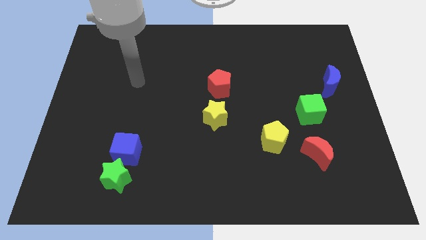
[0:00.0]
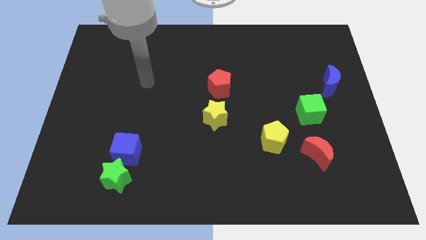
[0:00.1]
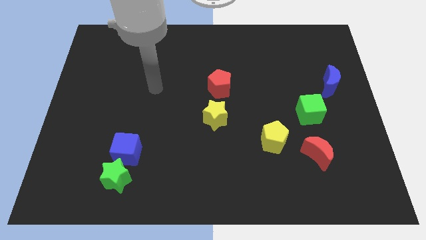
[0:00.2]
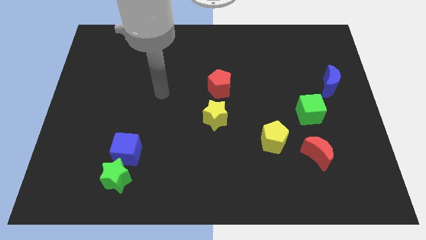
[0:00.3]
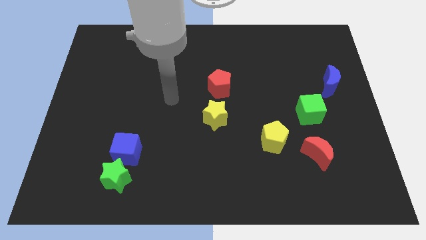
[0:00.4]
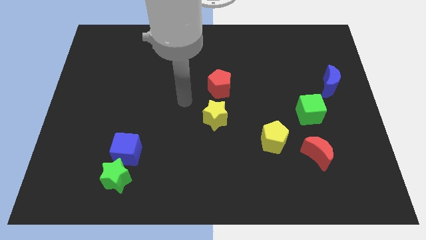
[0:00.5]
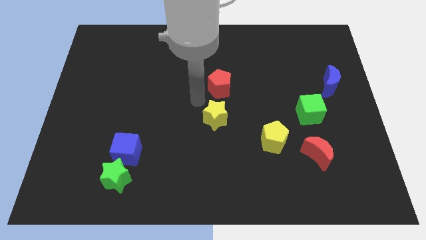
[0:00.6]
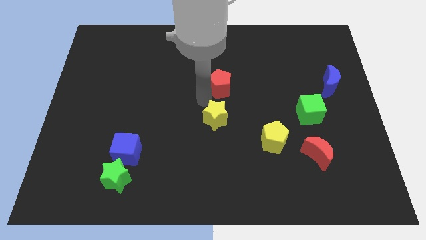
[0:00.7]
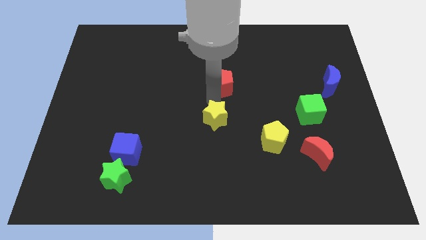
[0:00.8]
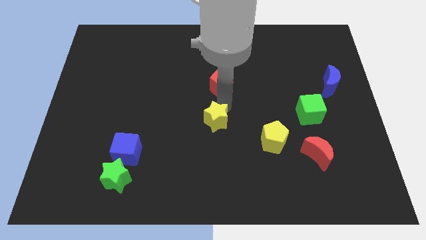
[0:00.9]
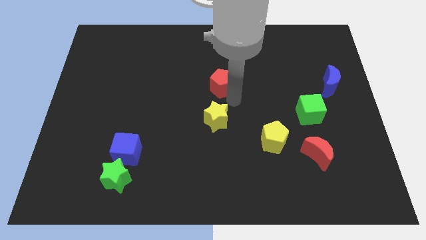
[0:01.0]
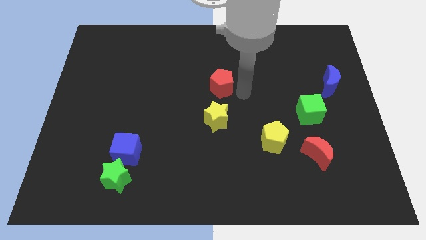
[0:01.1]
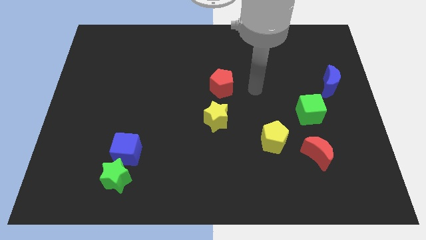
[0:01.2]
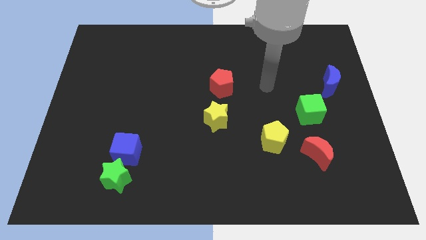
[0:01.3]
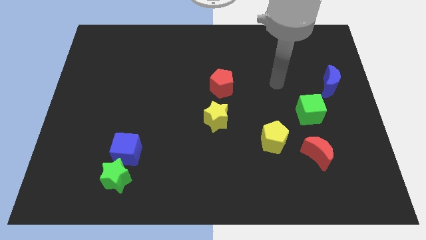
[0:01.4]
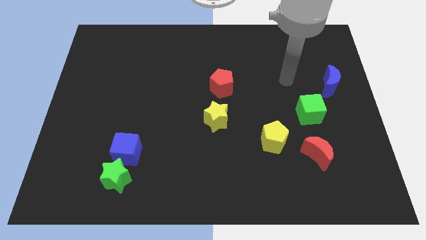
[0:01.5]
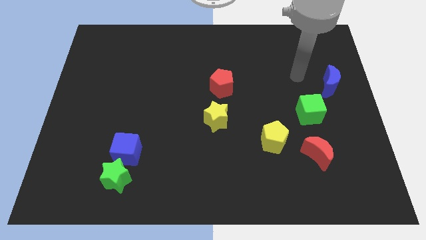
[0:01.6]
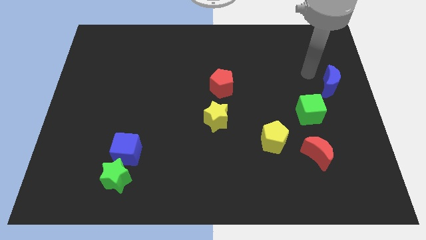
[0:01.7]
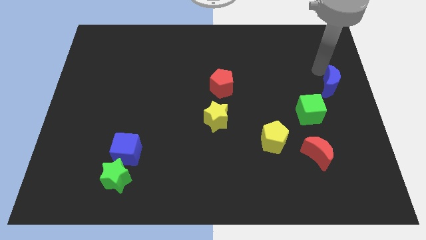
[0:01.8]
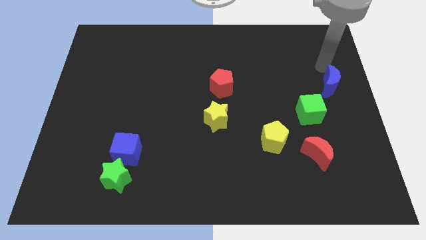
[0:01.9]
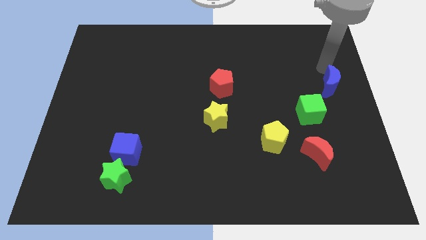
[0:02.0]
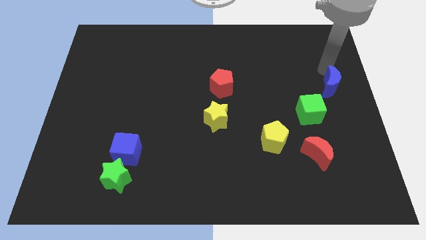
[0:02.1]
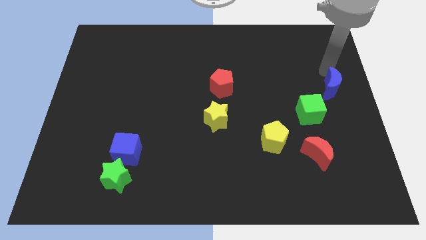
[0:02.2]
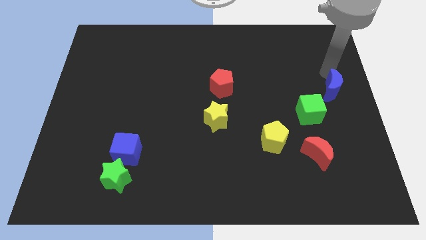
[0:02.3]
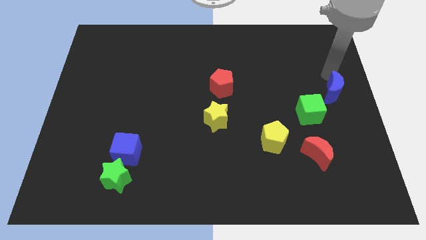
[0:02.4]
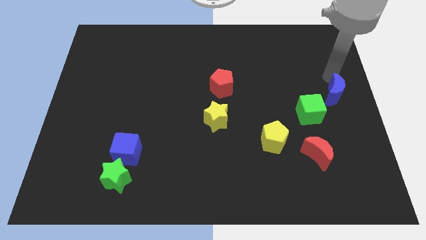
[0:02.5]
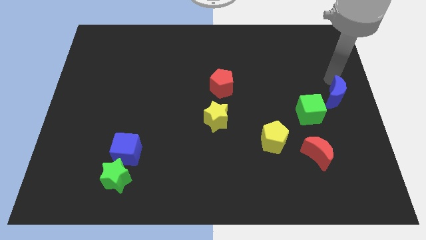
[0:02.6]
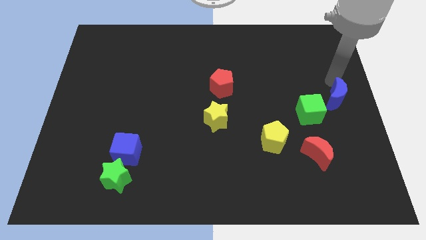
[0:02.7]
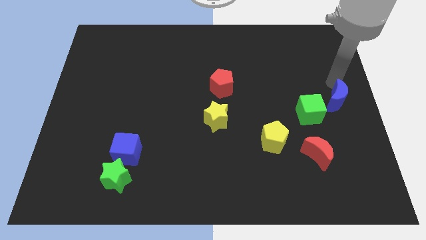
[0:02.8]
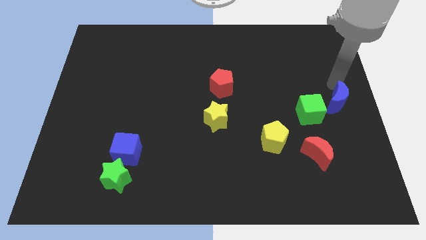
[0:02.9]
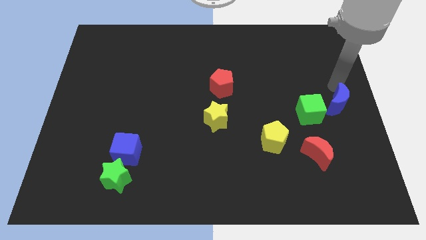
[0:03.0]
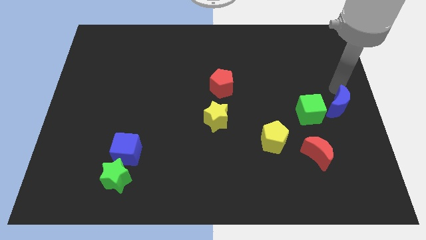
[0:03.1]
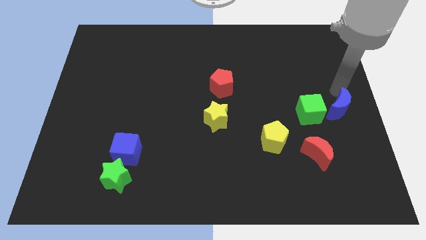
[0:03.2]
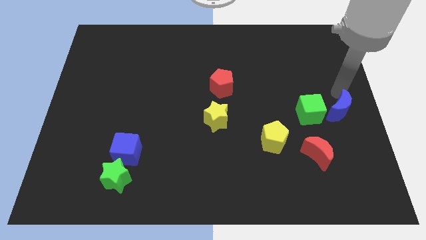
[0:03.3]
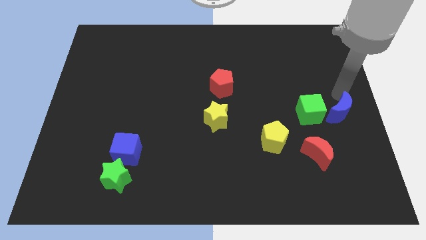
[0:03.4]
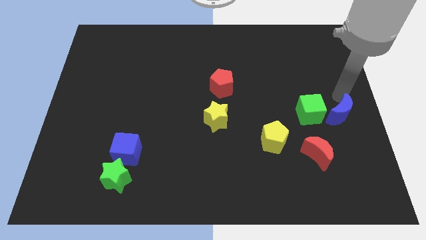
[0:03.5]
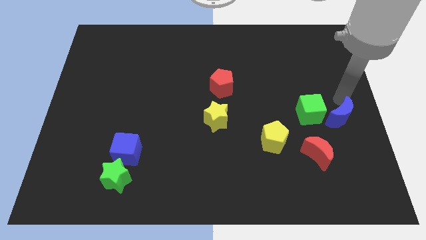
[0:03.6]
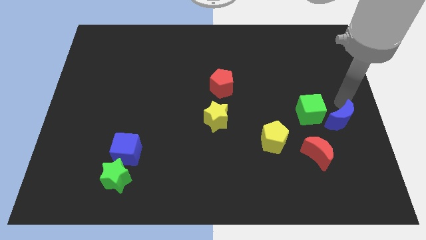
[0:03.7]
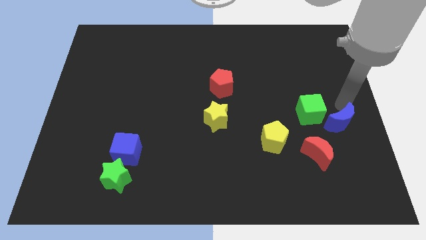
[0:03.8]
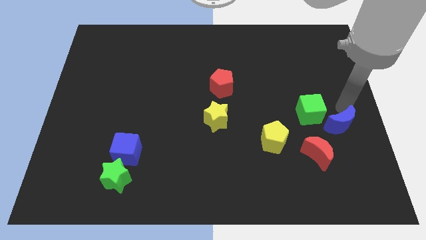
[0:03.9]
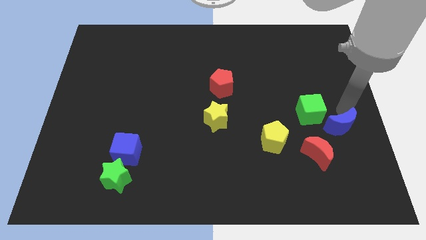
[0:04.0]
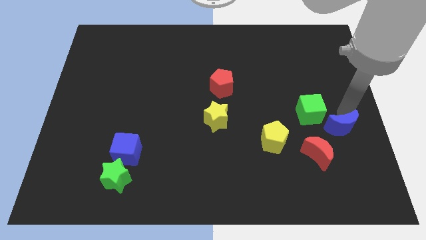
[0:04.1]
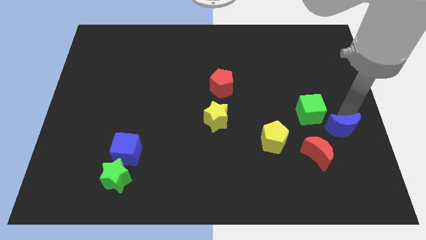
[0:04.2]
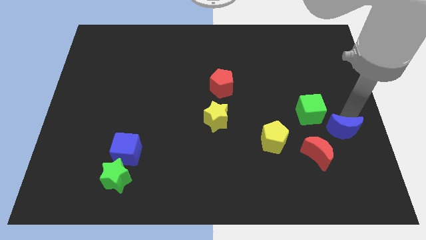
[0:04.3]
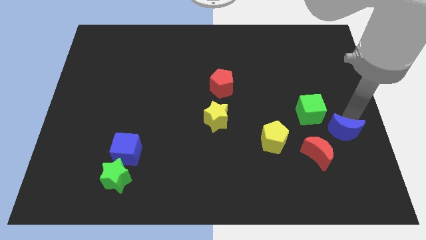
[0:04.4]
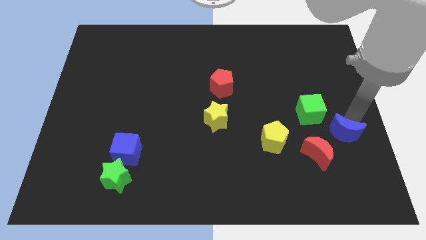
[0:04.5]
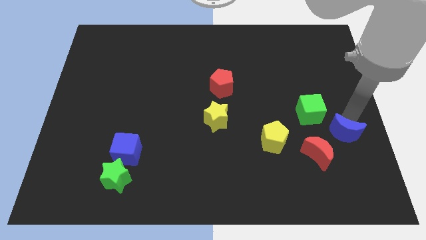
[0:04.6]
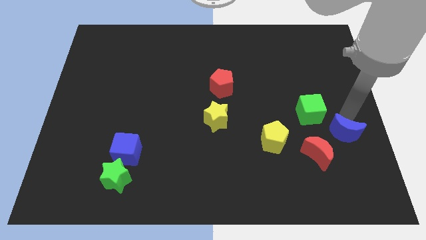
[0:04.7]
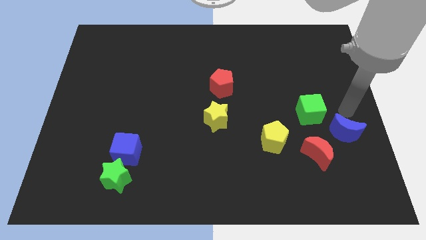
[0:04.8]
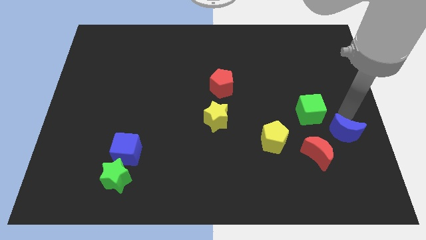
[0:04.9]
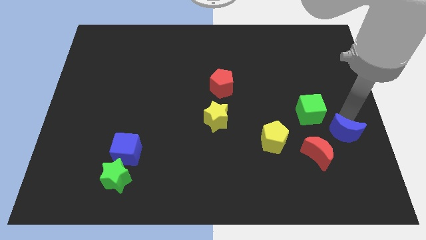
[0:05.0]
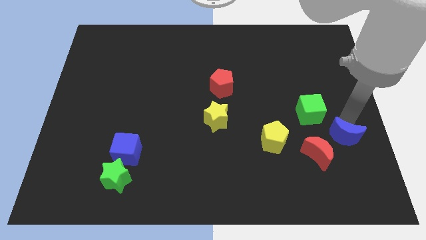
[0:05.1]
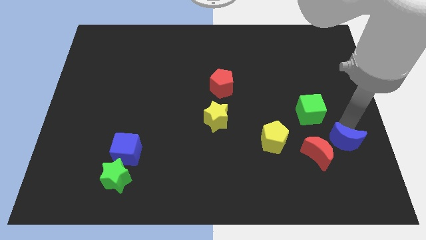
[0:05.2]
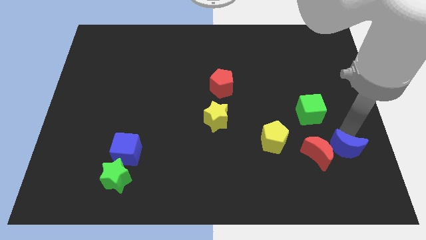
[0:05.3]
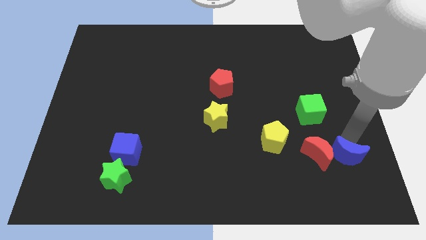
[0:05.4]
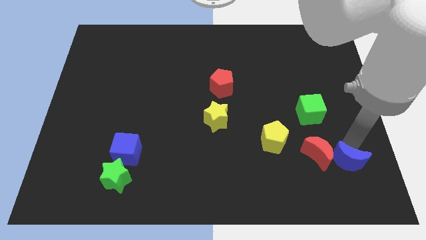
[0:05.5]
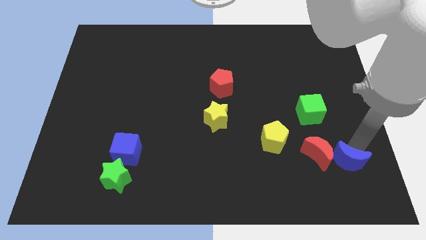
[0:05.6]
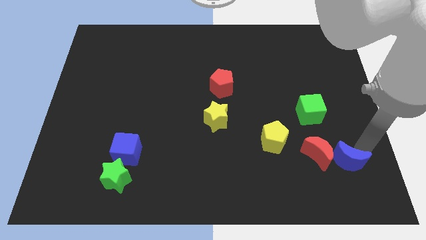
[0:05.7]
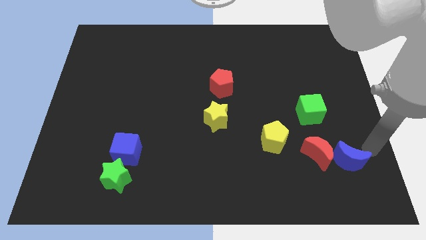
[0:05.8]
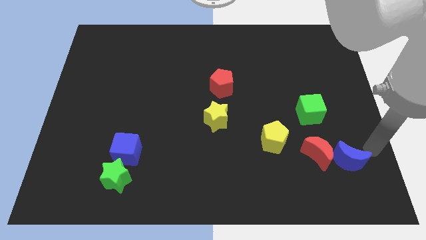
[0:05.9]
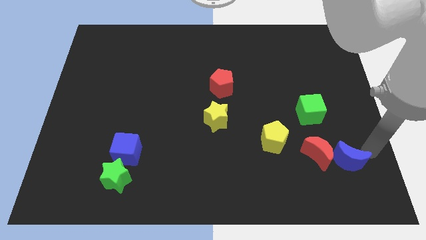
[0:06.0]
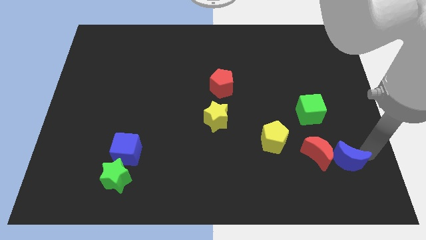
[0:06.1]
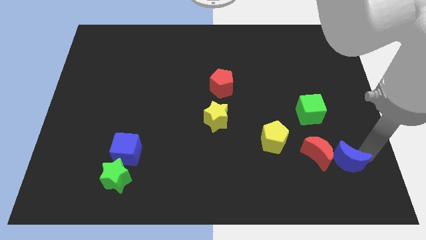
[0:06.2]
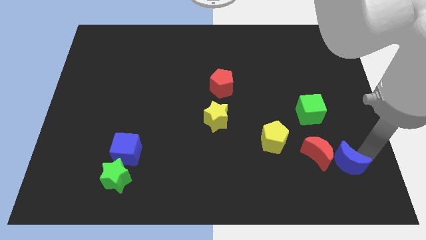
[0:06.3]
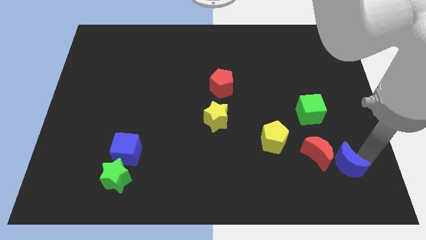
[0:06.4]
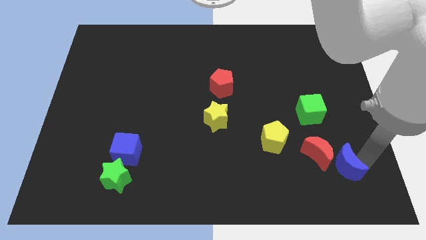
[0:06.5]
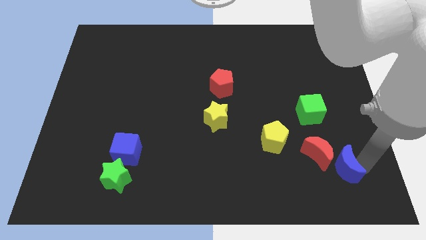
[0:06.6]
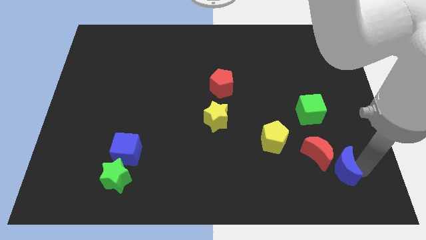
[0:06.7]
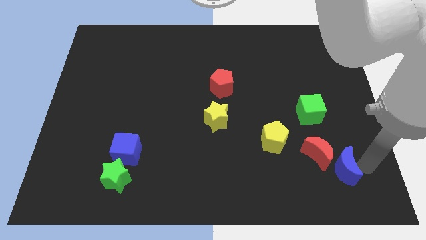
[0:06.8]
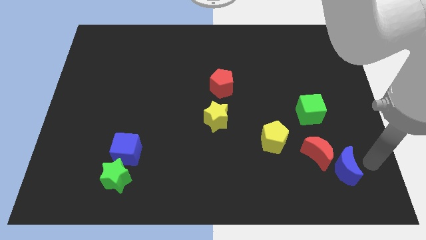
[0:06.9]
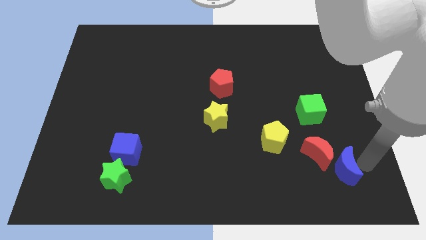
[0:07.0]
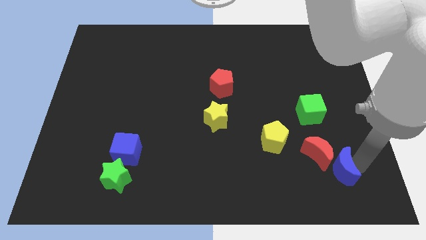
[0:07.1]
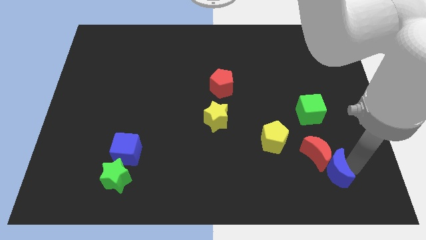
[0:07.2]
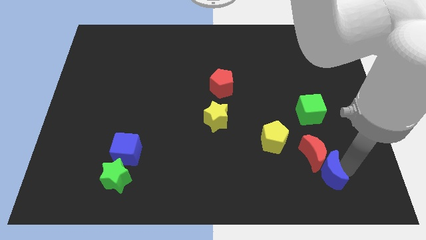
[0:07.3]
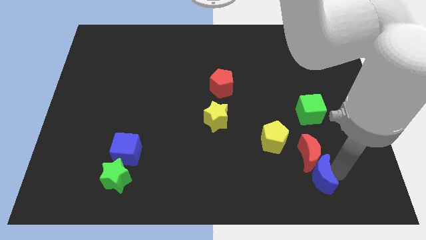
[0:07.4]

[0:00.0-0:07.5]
slide the blue moon to the bottom left of the red moon
